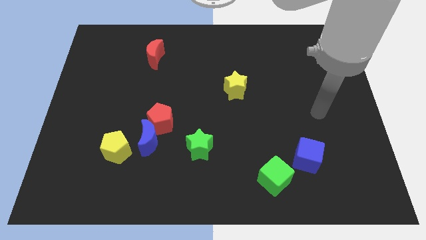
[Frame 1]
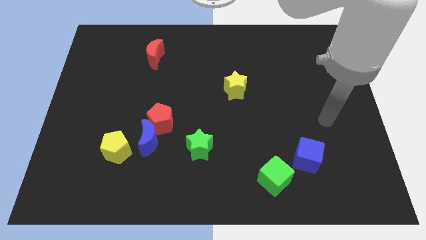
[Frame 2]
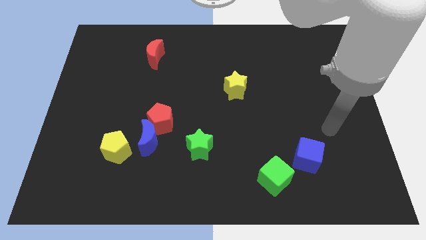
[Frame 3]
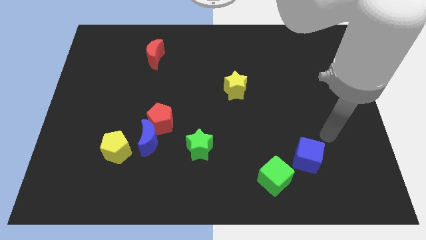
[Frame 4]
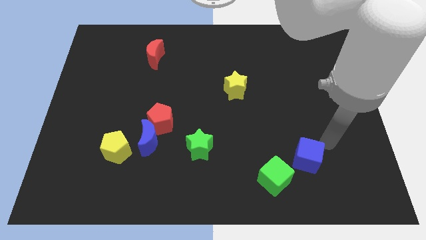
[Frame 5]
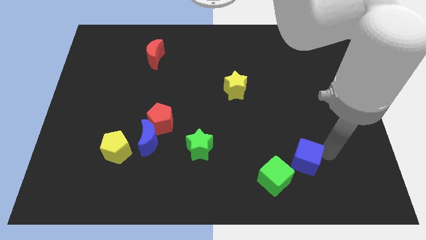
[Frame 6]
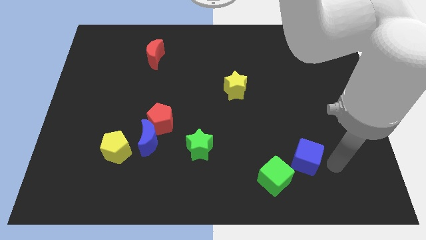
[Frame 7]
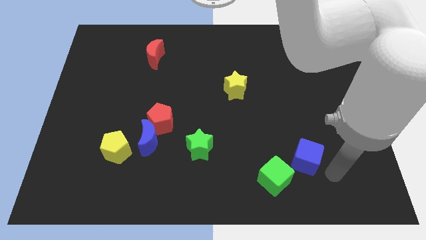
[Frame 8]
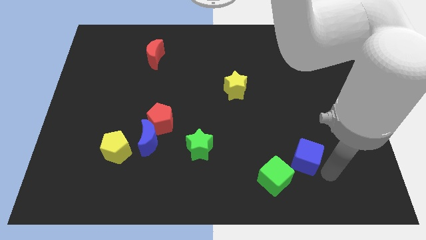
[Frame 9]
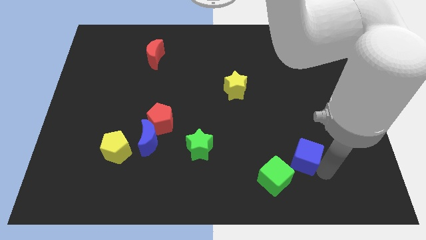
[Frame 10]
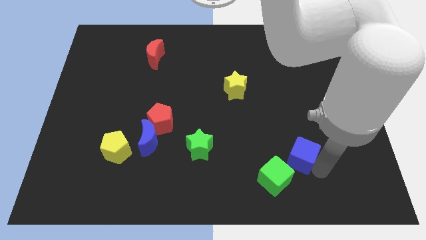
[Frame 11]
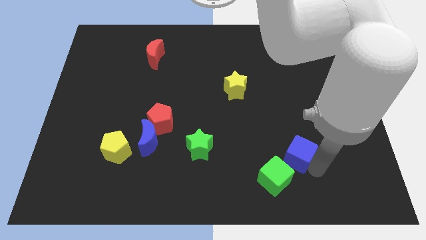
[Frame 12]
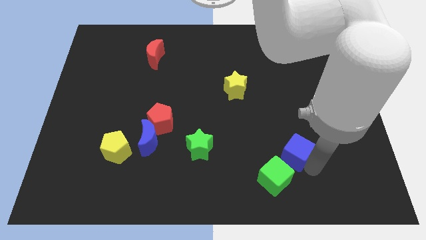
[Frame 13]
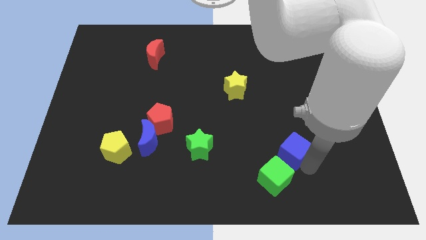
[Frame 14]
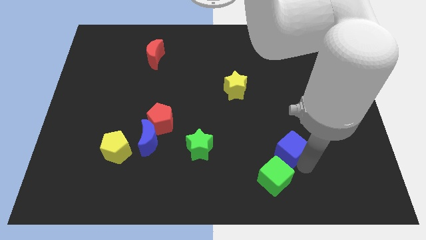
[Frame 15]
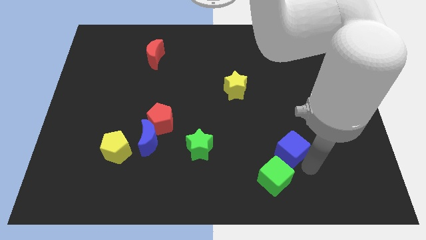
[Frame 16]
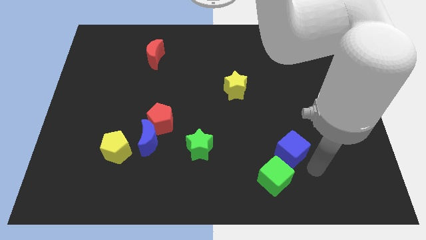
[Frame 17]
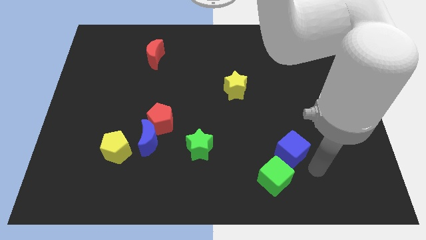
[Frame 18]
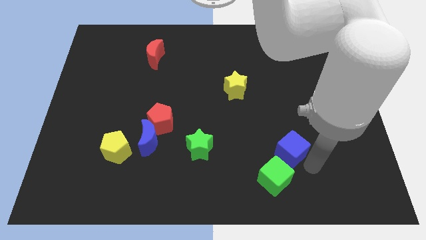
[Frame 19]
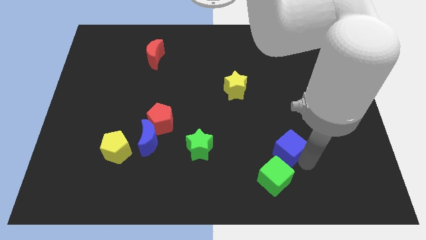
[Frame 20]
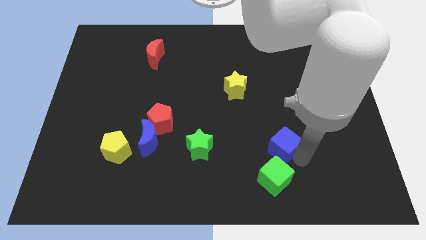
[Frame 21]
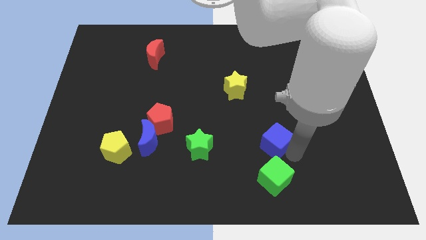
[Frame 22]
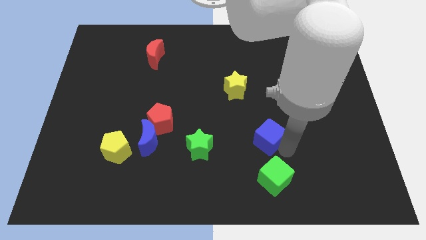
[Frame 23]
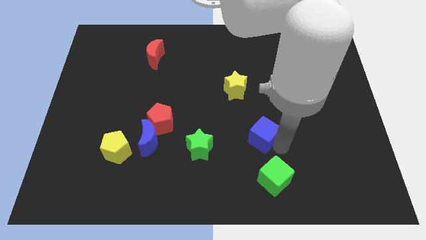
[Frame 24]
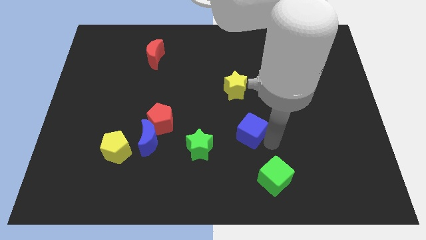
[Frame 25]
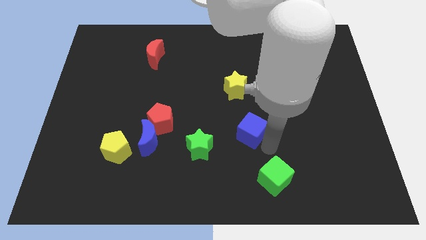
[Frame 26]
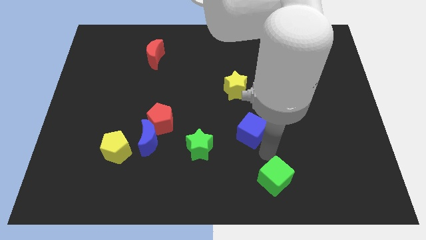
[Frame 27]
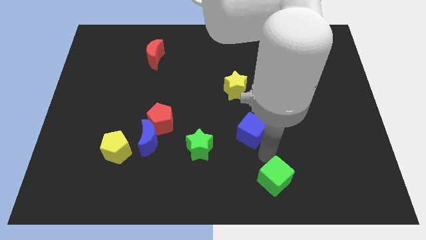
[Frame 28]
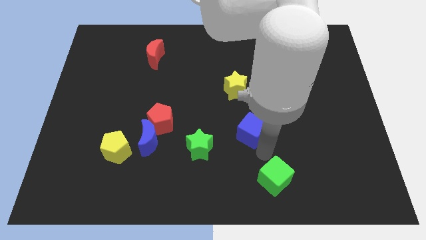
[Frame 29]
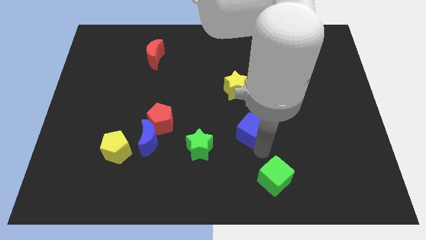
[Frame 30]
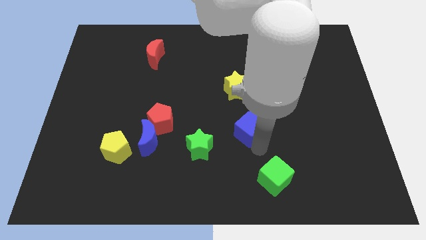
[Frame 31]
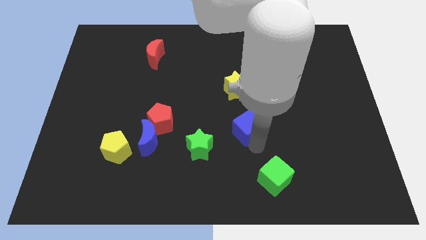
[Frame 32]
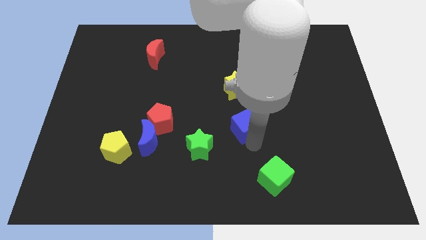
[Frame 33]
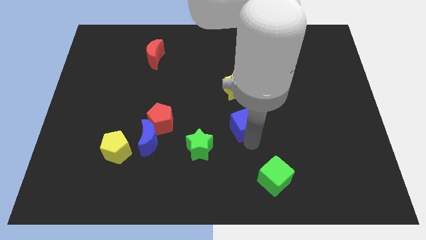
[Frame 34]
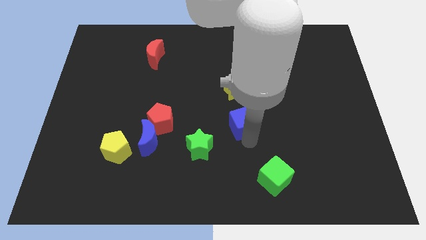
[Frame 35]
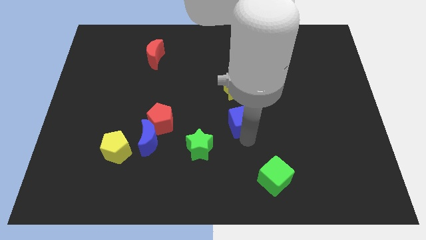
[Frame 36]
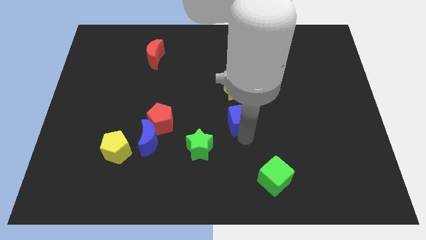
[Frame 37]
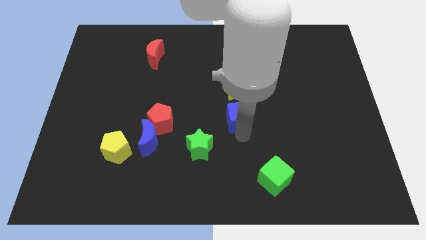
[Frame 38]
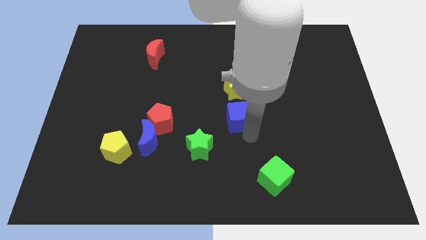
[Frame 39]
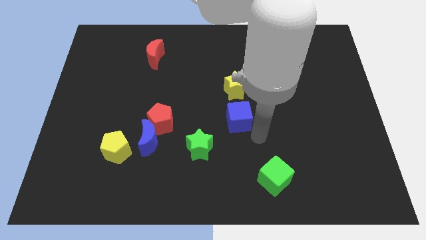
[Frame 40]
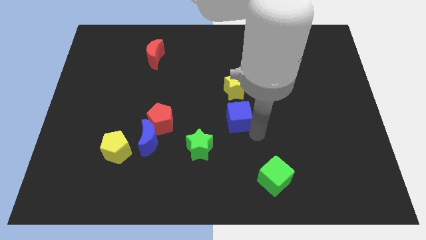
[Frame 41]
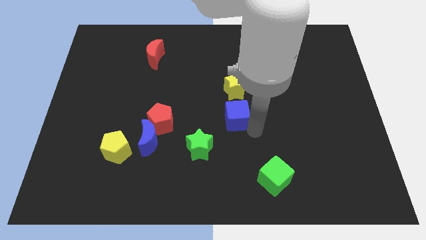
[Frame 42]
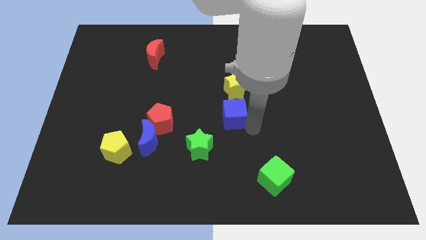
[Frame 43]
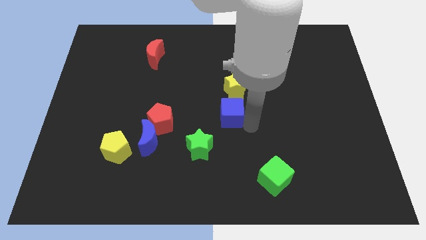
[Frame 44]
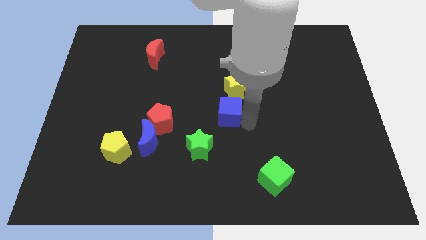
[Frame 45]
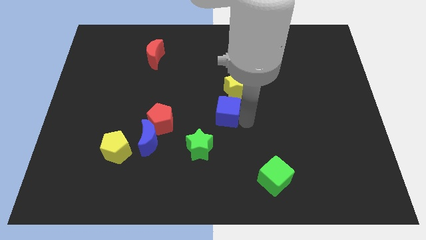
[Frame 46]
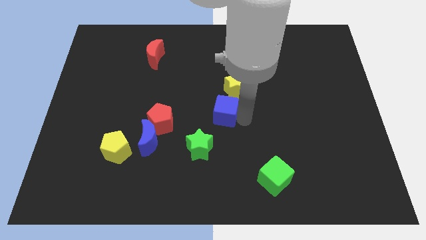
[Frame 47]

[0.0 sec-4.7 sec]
slide the blue cube up and left

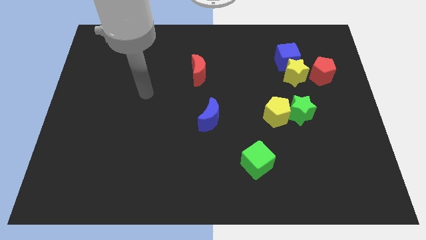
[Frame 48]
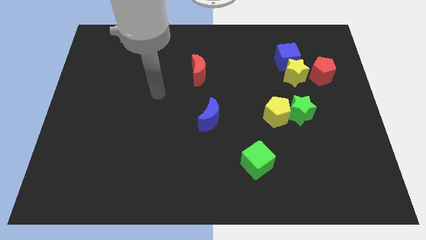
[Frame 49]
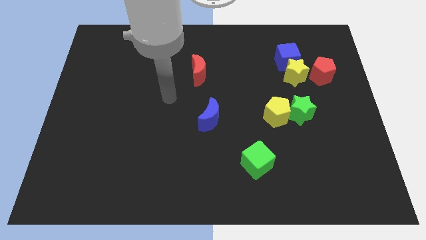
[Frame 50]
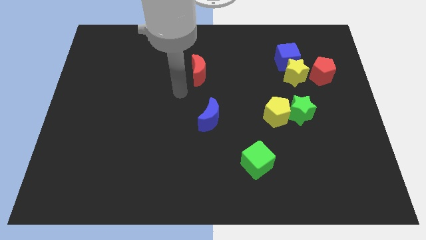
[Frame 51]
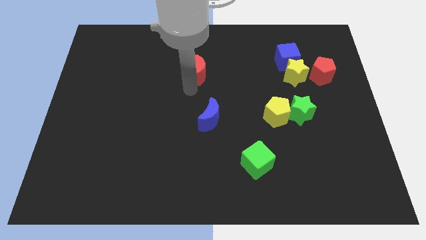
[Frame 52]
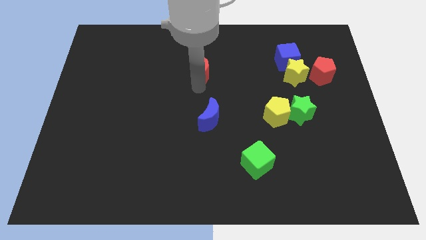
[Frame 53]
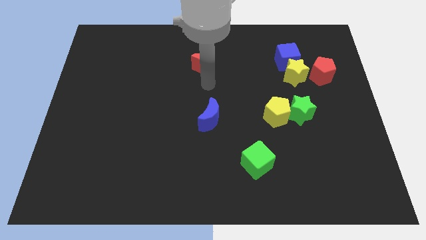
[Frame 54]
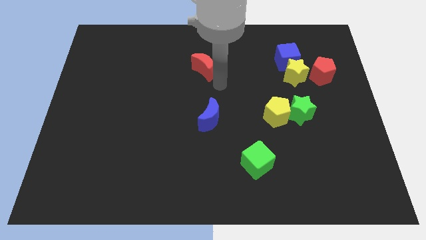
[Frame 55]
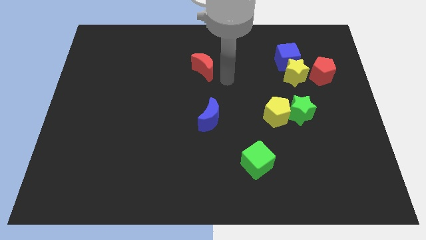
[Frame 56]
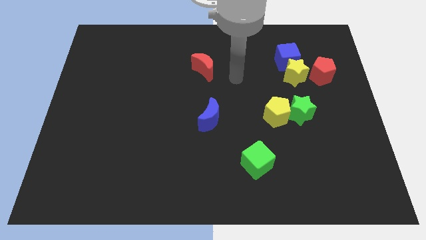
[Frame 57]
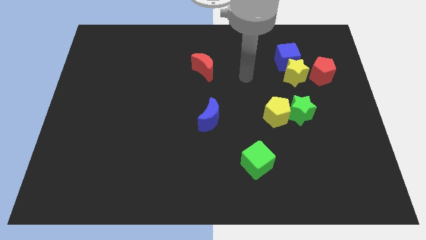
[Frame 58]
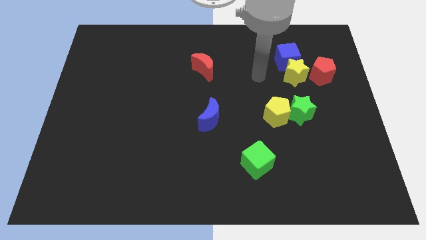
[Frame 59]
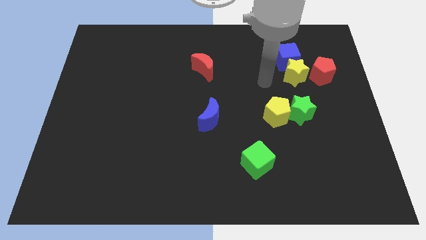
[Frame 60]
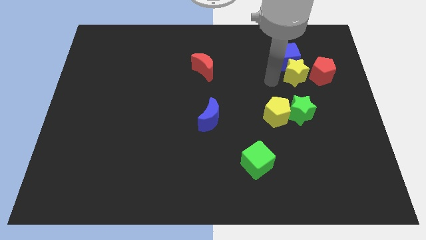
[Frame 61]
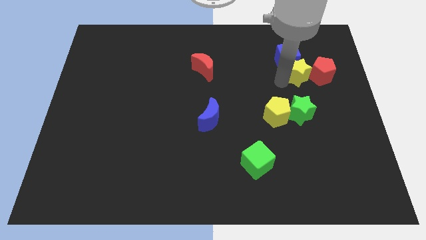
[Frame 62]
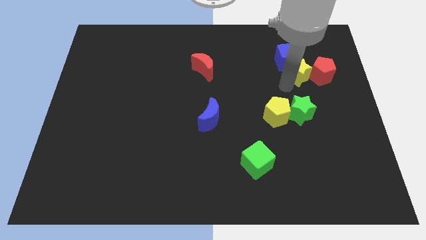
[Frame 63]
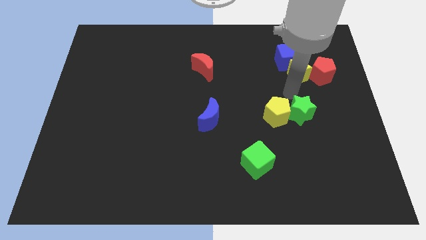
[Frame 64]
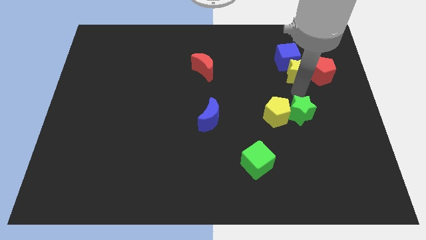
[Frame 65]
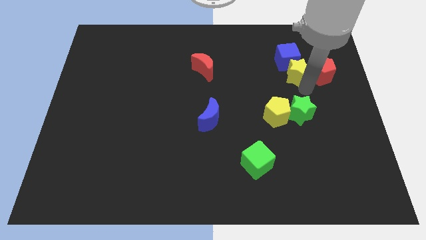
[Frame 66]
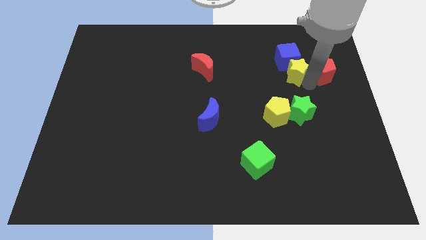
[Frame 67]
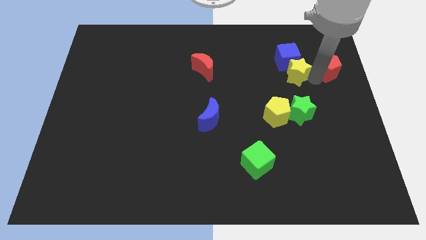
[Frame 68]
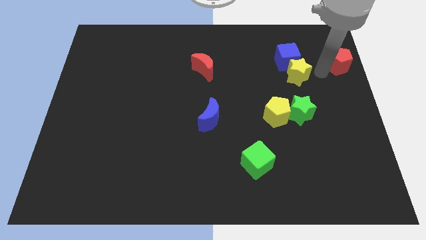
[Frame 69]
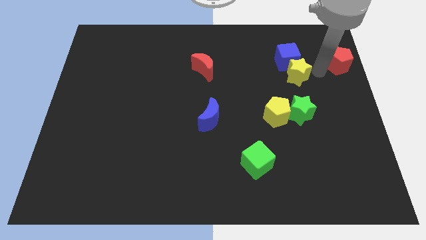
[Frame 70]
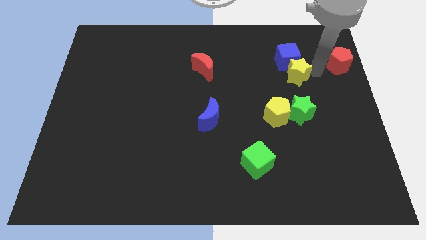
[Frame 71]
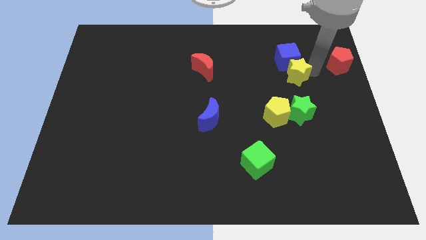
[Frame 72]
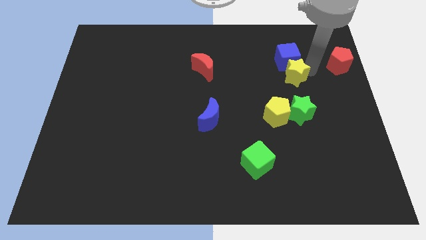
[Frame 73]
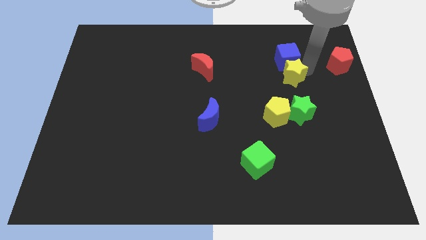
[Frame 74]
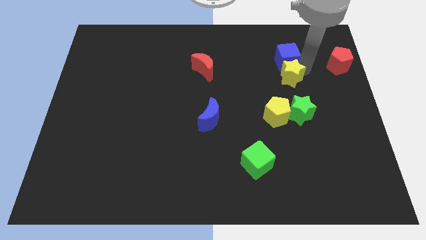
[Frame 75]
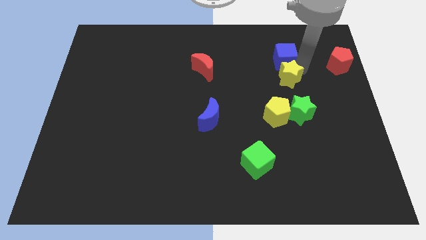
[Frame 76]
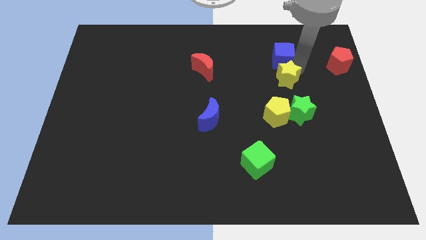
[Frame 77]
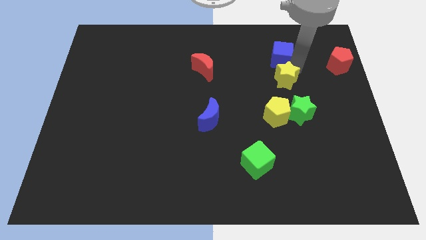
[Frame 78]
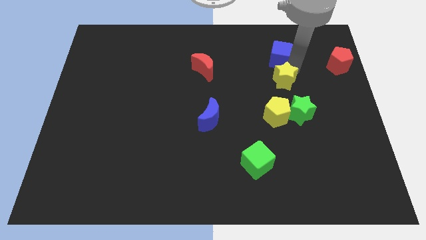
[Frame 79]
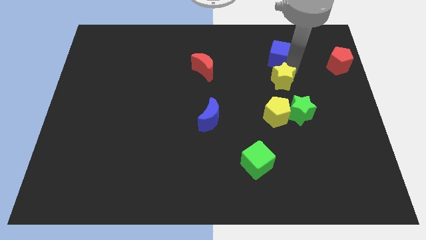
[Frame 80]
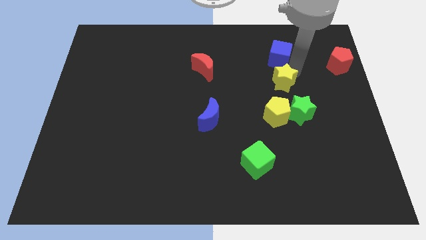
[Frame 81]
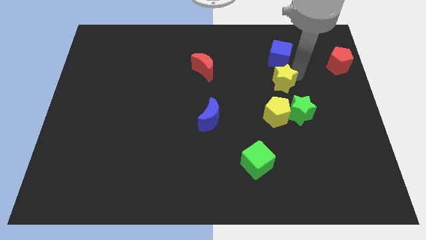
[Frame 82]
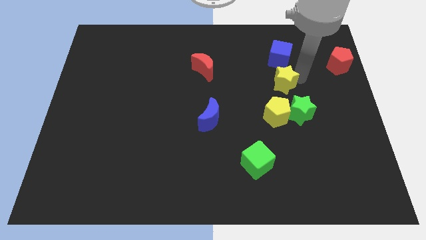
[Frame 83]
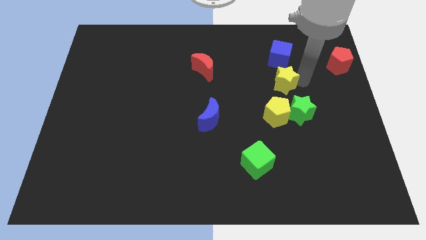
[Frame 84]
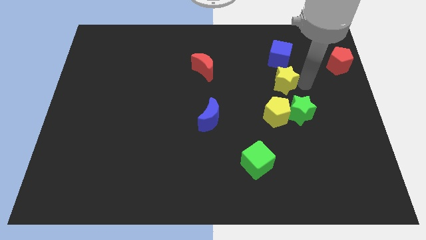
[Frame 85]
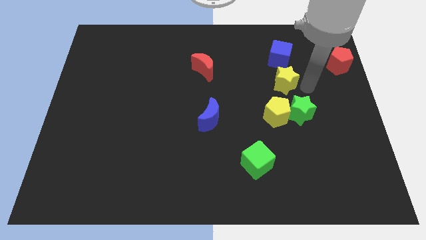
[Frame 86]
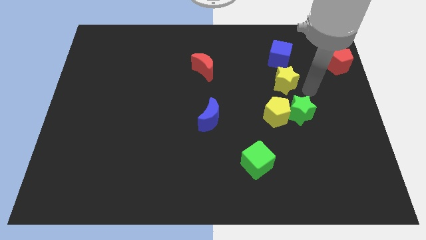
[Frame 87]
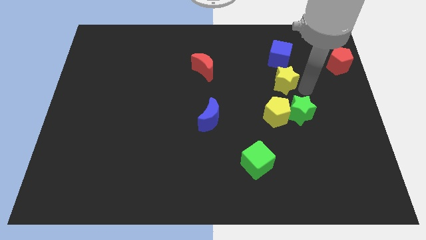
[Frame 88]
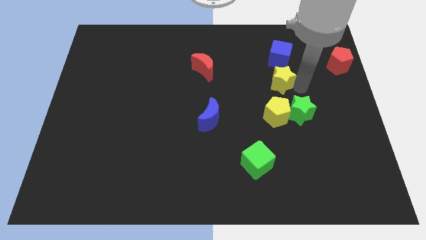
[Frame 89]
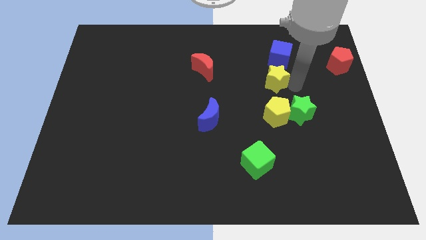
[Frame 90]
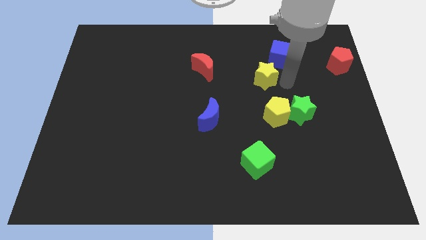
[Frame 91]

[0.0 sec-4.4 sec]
slightly move the yellow star to the left
